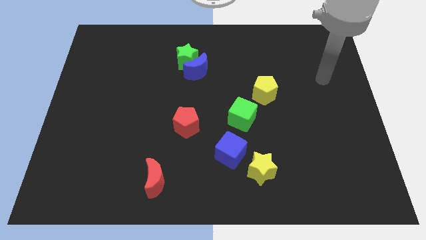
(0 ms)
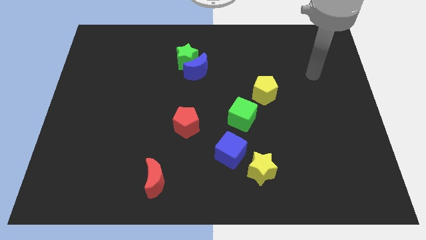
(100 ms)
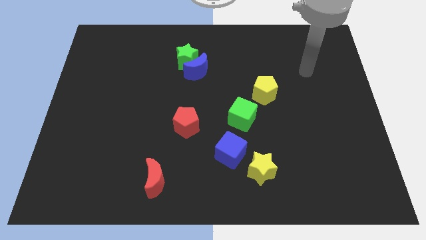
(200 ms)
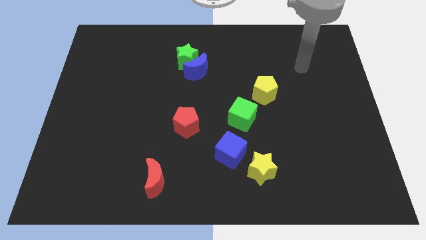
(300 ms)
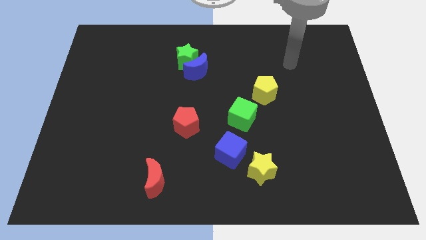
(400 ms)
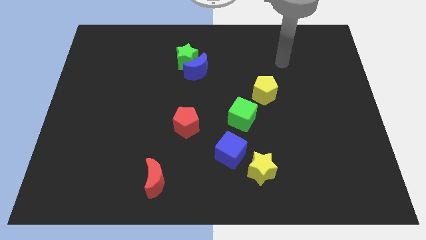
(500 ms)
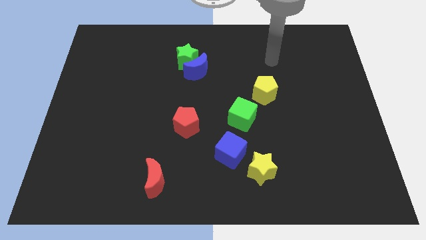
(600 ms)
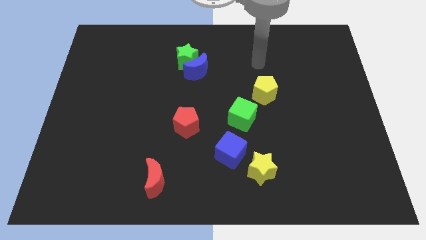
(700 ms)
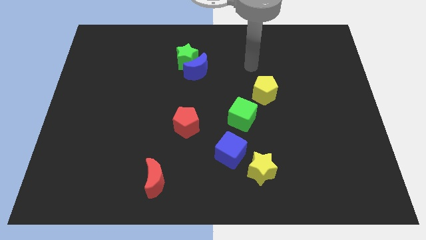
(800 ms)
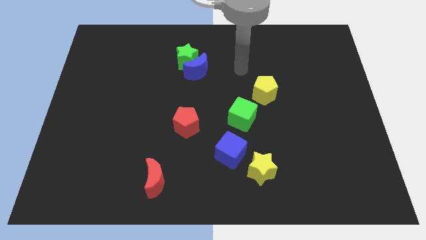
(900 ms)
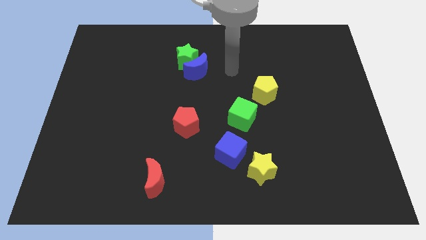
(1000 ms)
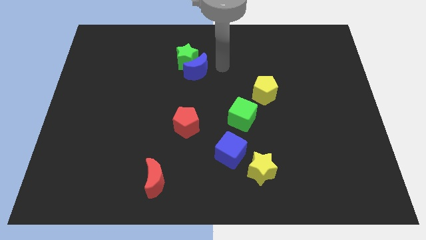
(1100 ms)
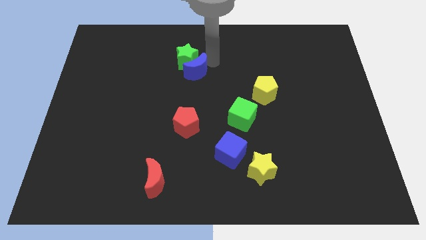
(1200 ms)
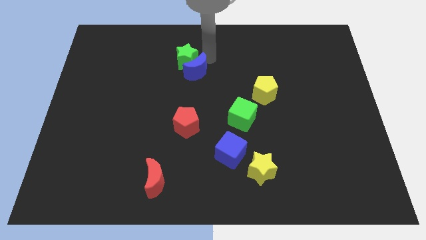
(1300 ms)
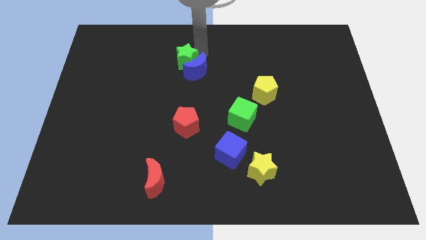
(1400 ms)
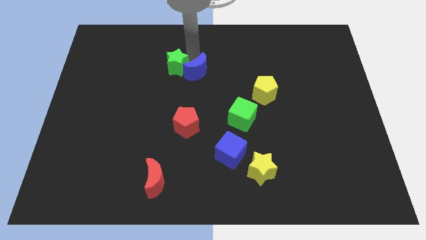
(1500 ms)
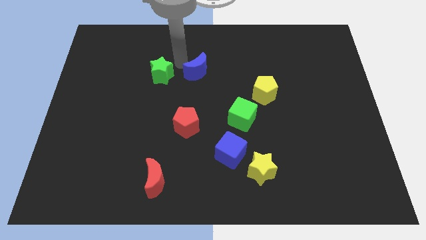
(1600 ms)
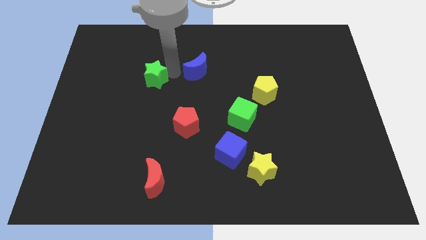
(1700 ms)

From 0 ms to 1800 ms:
pull the blue moon apart from the green star

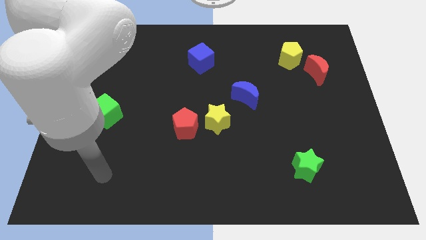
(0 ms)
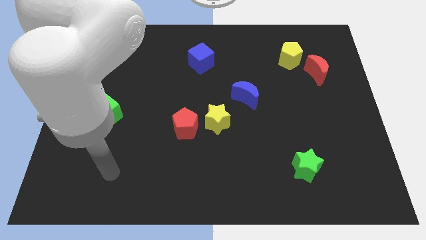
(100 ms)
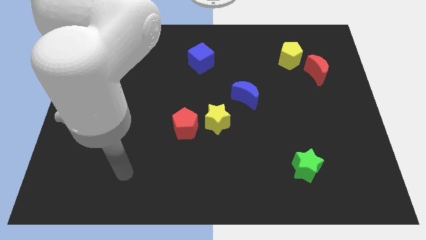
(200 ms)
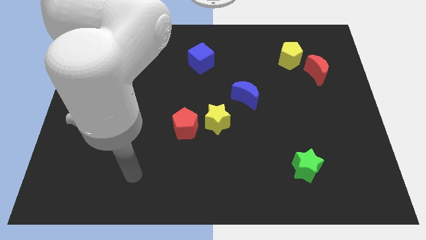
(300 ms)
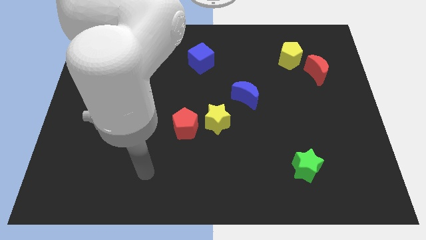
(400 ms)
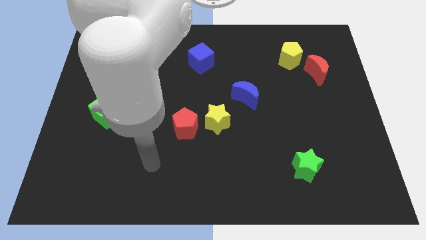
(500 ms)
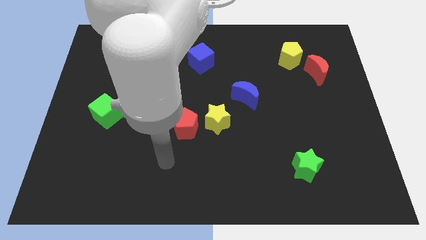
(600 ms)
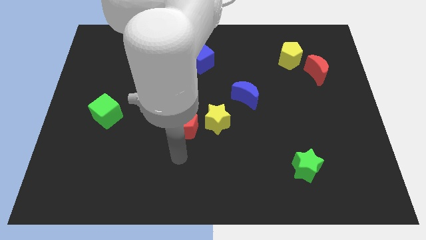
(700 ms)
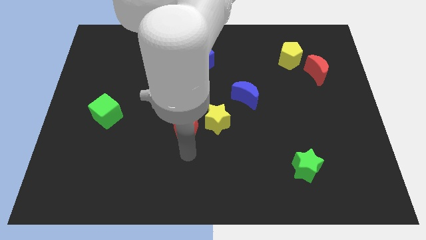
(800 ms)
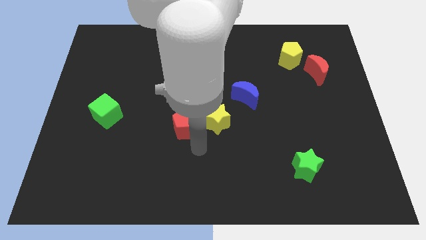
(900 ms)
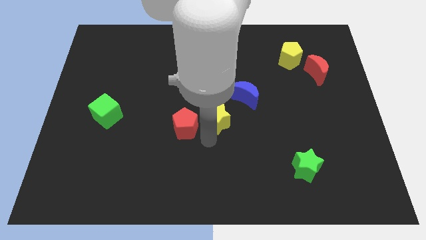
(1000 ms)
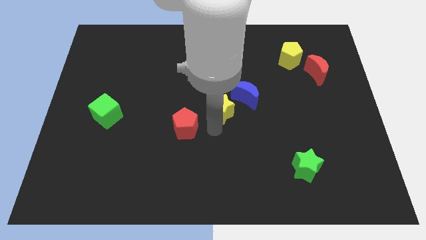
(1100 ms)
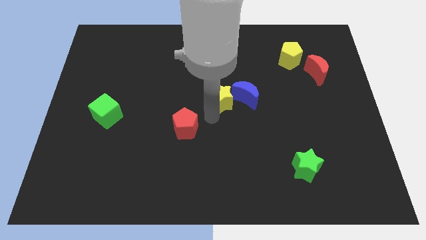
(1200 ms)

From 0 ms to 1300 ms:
separate the red pentagon from the yellow star

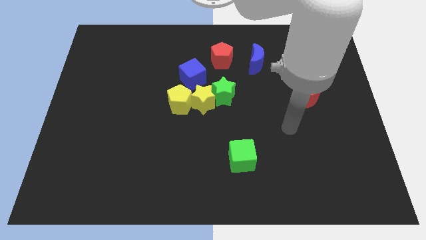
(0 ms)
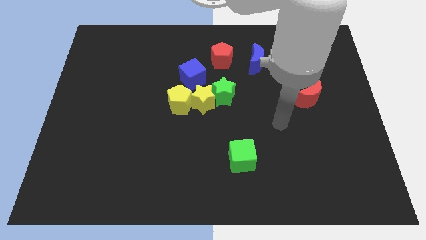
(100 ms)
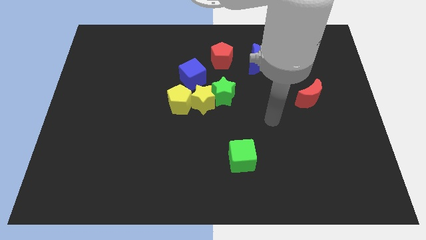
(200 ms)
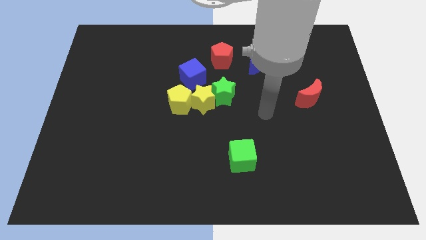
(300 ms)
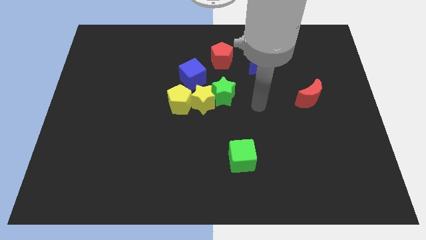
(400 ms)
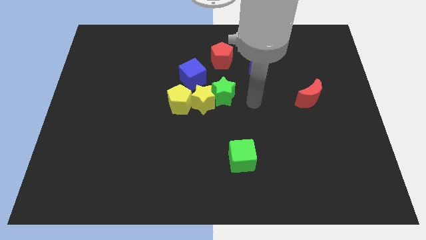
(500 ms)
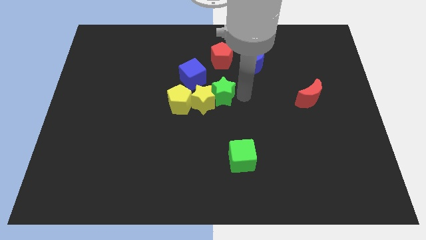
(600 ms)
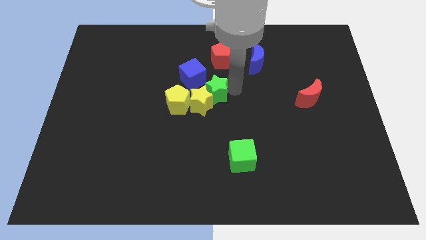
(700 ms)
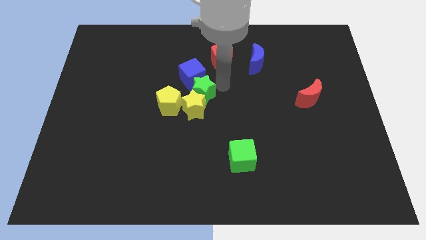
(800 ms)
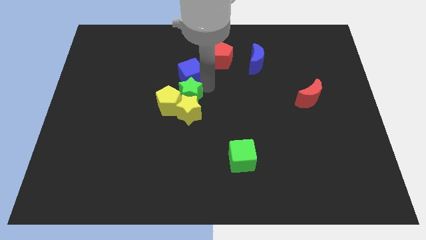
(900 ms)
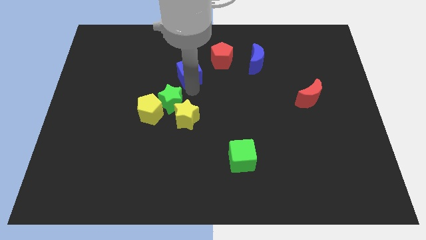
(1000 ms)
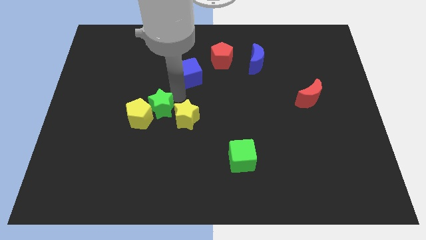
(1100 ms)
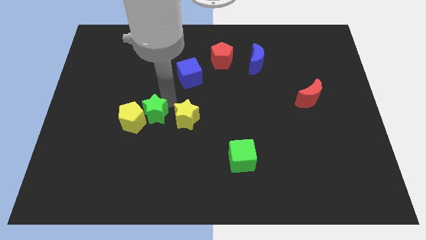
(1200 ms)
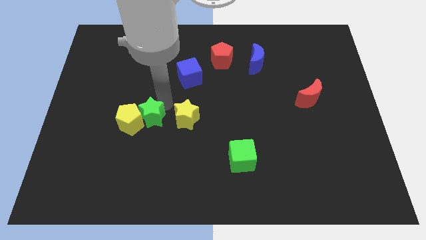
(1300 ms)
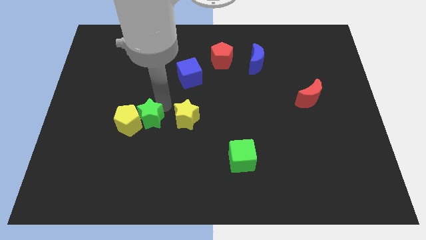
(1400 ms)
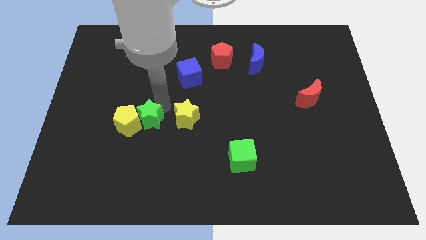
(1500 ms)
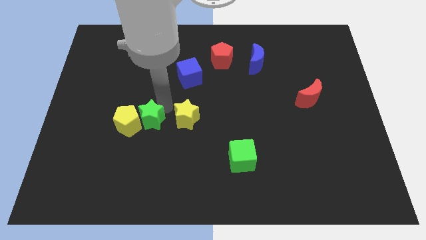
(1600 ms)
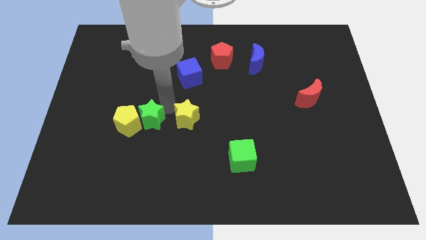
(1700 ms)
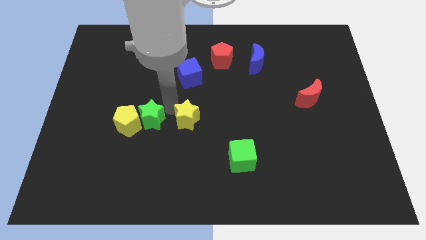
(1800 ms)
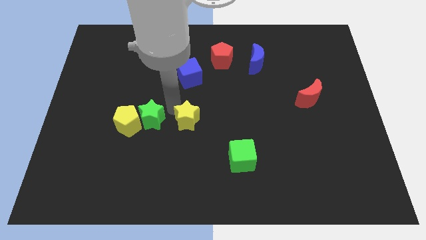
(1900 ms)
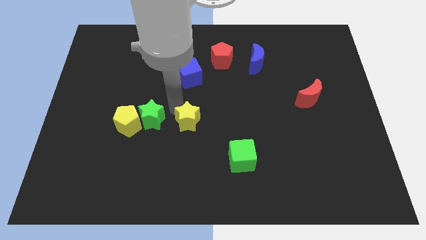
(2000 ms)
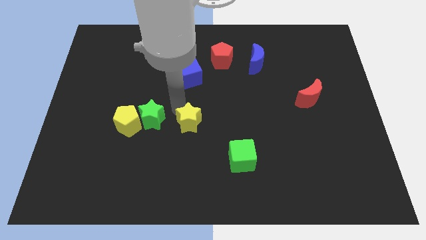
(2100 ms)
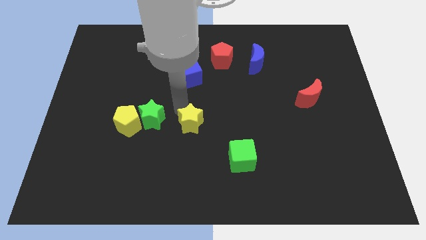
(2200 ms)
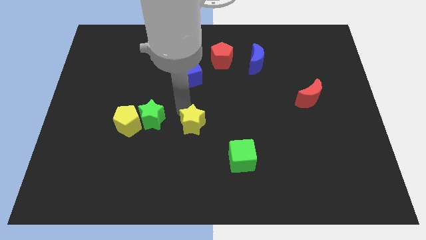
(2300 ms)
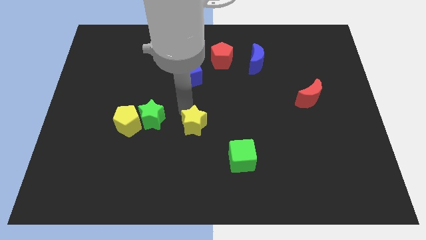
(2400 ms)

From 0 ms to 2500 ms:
move the yellow star away from the group of blocks

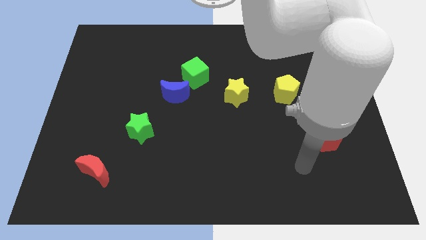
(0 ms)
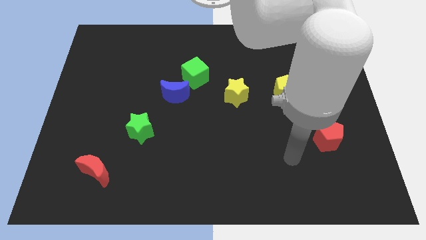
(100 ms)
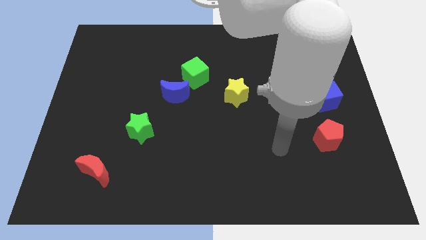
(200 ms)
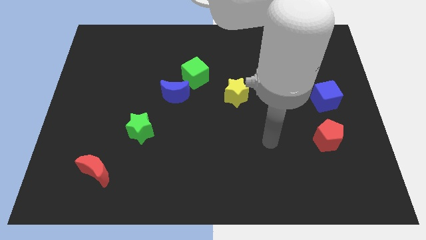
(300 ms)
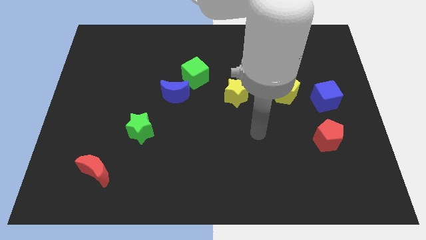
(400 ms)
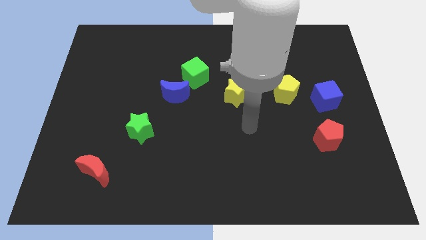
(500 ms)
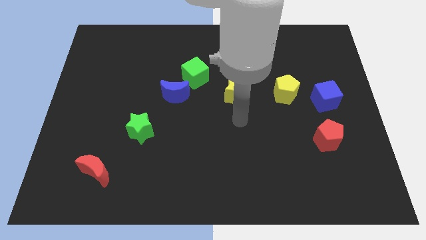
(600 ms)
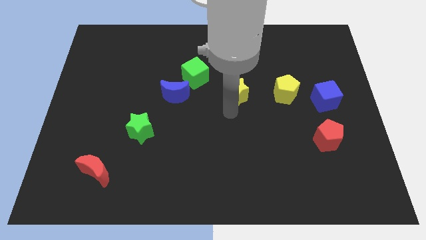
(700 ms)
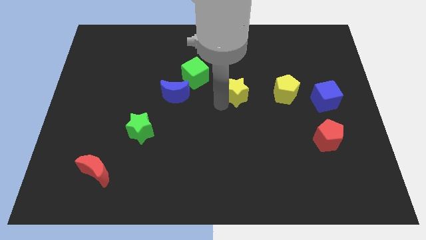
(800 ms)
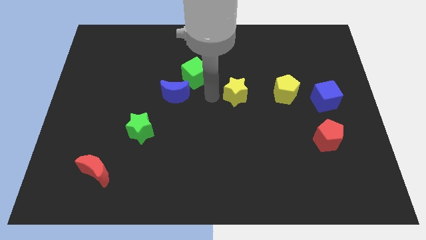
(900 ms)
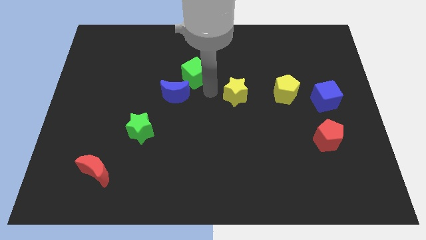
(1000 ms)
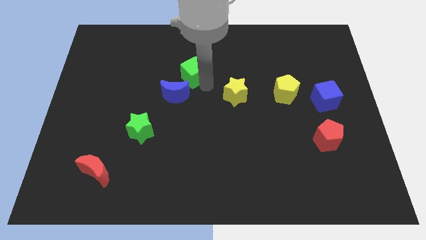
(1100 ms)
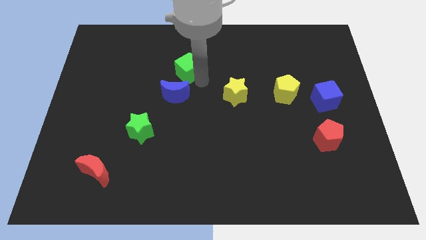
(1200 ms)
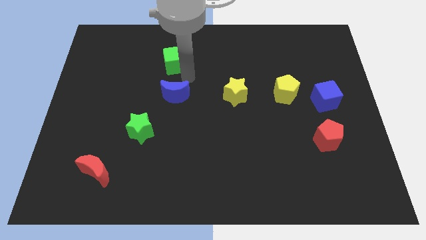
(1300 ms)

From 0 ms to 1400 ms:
pull the blue moon apart from the green cube

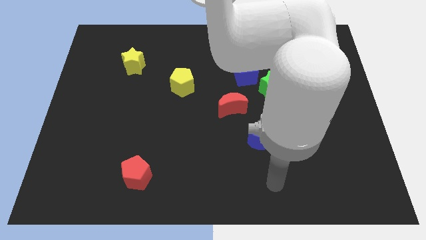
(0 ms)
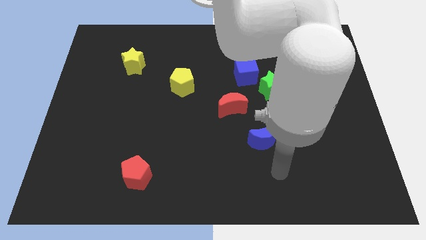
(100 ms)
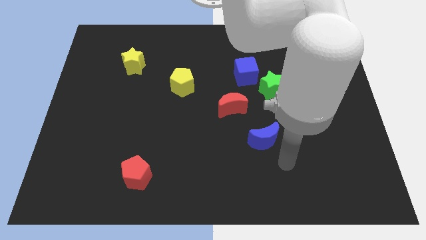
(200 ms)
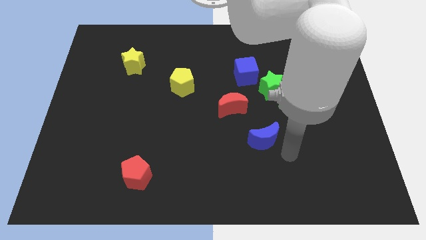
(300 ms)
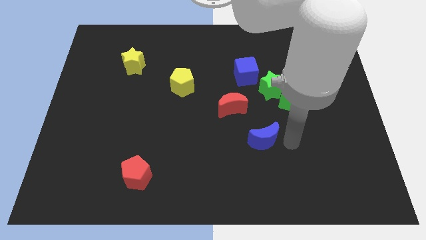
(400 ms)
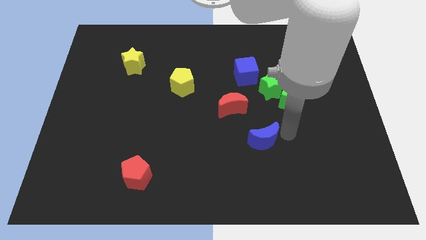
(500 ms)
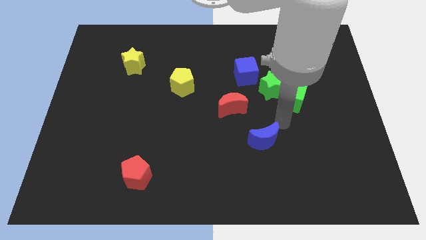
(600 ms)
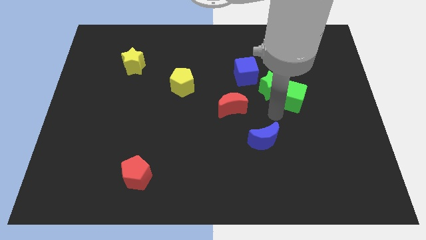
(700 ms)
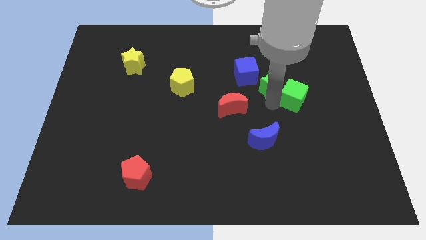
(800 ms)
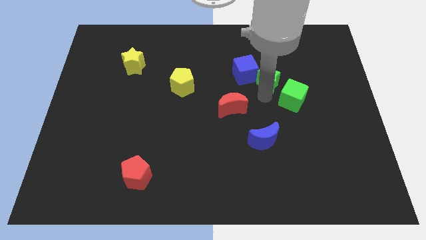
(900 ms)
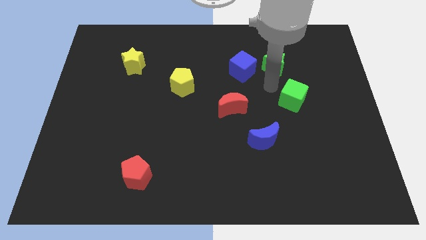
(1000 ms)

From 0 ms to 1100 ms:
pull the green cube apart from the green star

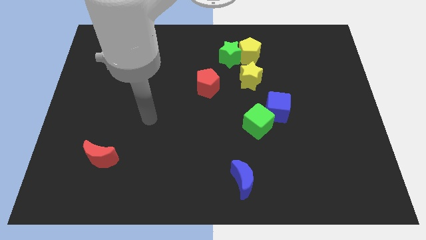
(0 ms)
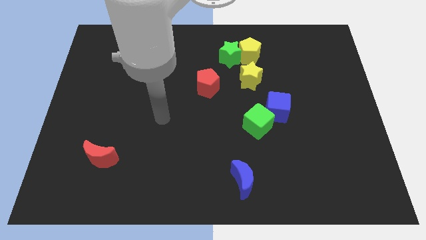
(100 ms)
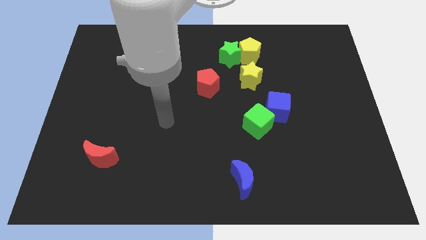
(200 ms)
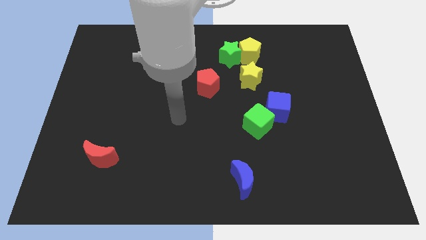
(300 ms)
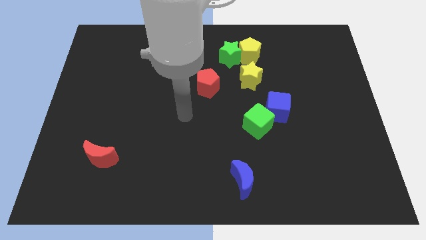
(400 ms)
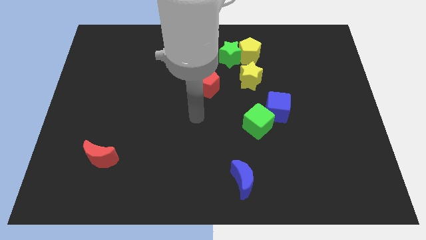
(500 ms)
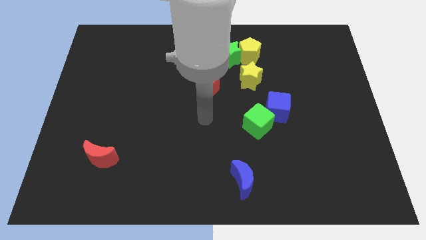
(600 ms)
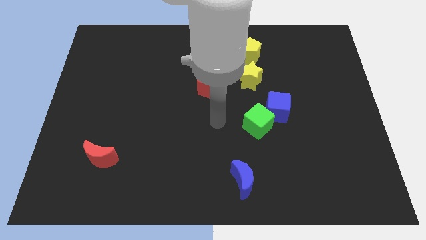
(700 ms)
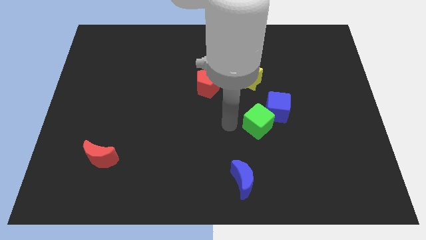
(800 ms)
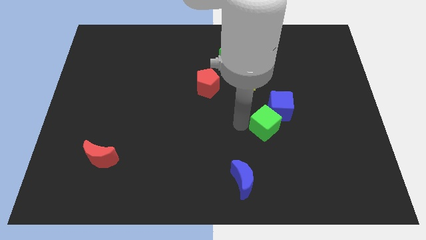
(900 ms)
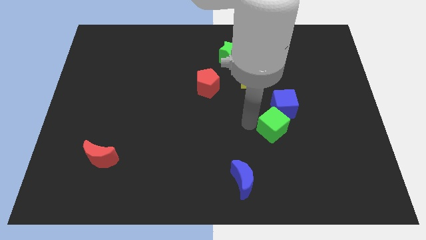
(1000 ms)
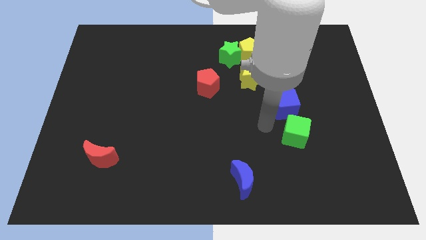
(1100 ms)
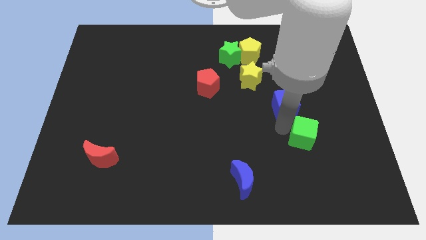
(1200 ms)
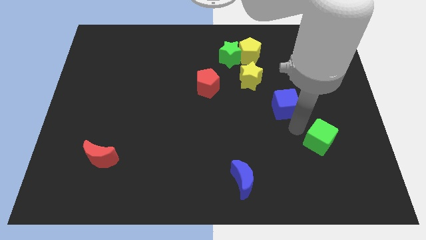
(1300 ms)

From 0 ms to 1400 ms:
move the blue cube away from the green cube

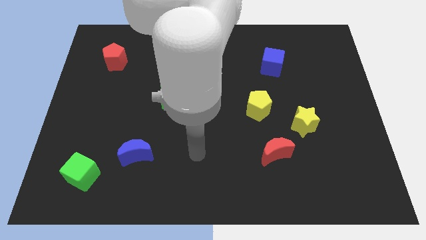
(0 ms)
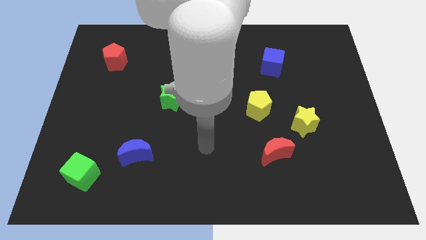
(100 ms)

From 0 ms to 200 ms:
pull the red moon apart from the yellow star
